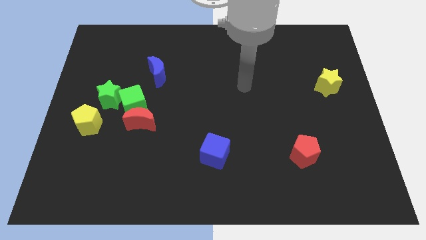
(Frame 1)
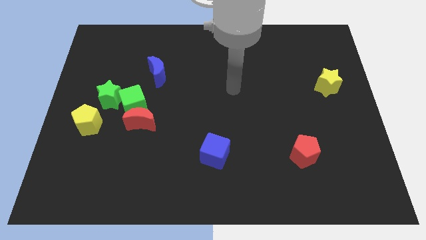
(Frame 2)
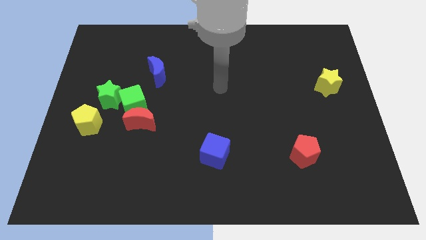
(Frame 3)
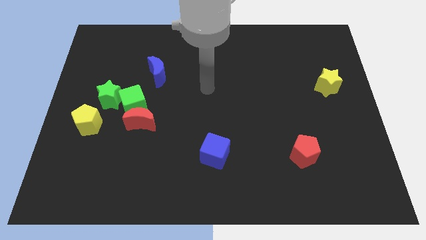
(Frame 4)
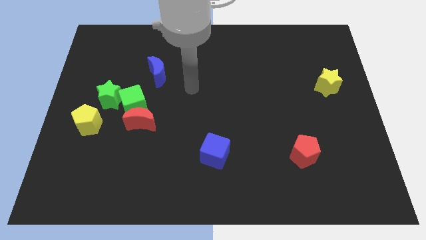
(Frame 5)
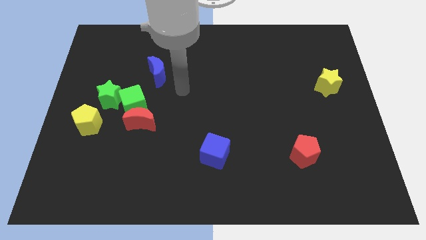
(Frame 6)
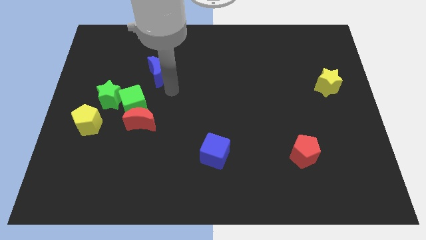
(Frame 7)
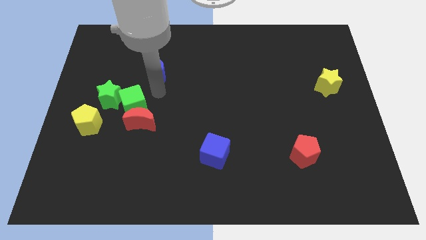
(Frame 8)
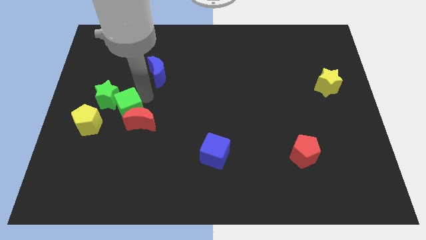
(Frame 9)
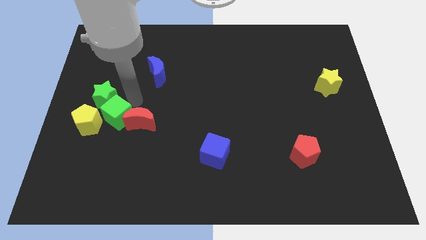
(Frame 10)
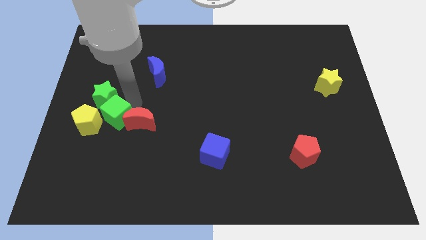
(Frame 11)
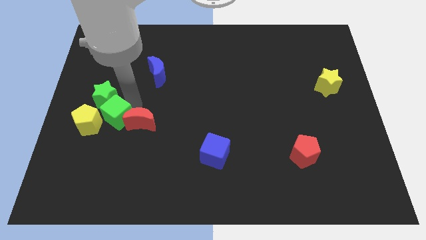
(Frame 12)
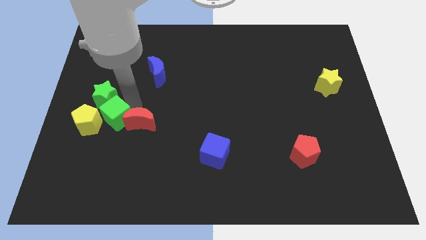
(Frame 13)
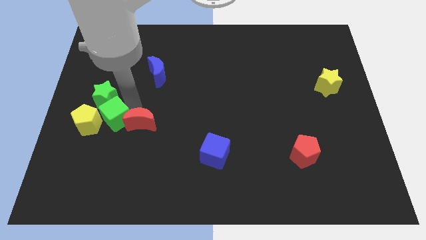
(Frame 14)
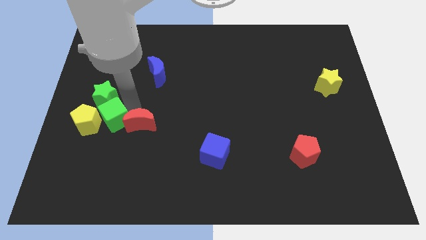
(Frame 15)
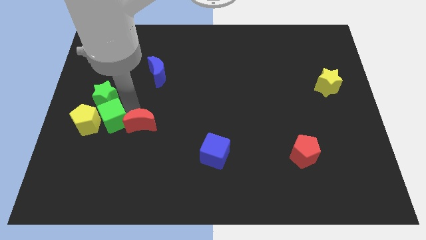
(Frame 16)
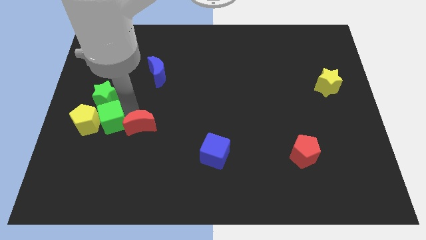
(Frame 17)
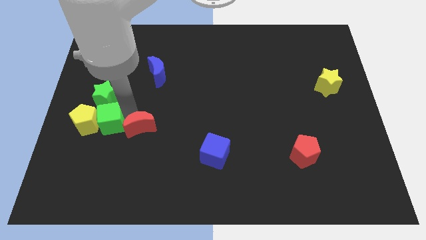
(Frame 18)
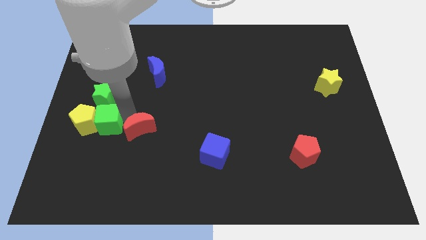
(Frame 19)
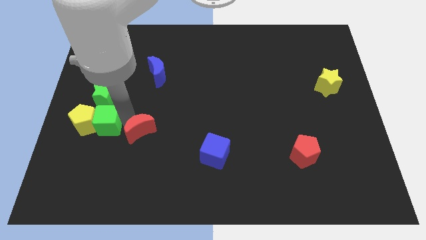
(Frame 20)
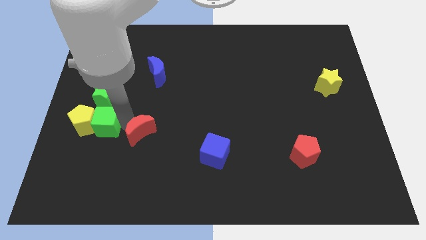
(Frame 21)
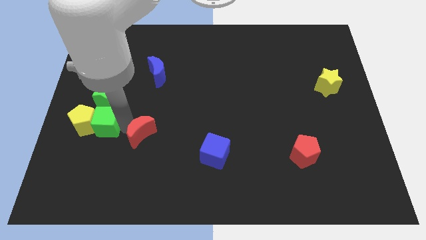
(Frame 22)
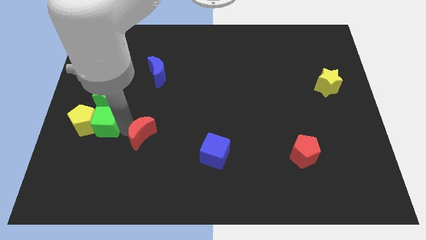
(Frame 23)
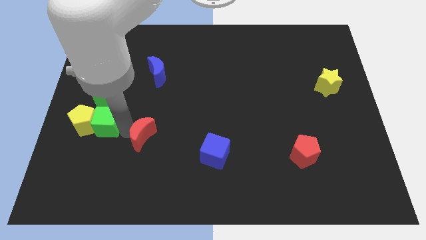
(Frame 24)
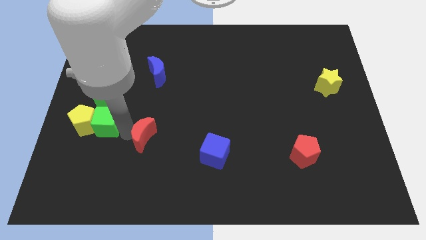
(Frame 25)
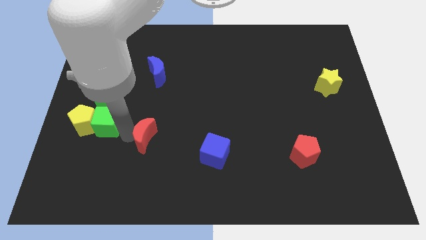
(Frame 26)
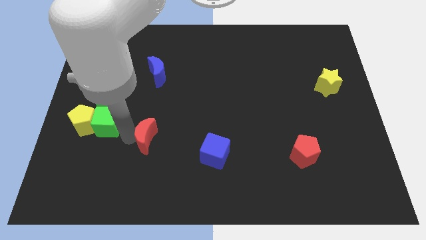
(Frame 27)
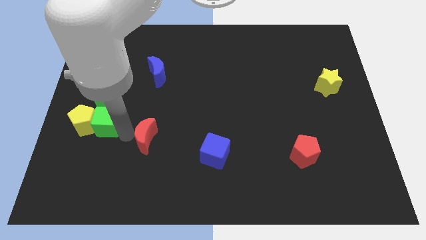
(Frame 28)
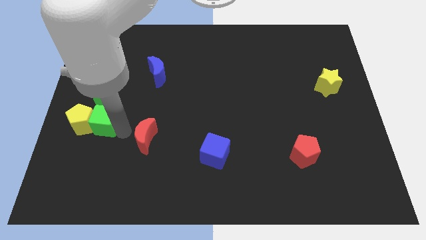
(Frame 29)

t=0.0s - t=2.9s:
move the red moon away from the green cube

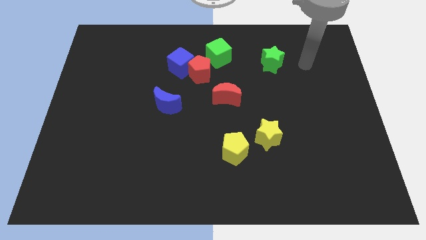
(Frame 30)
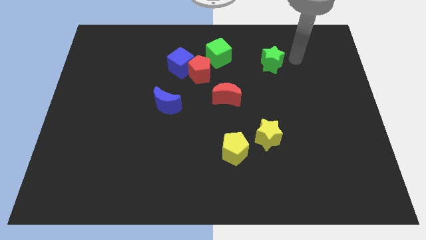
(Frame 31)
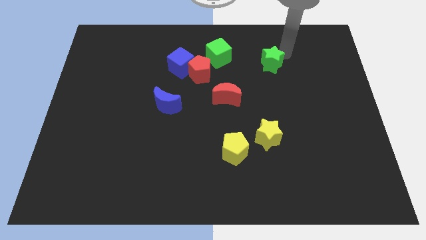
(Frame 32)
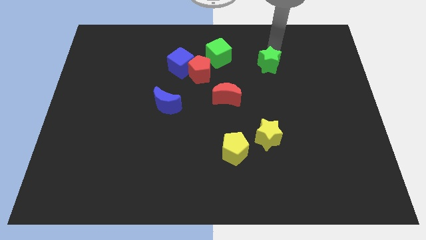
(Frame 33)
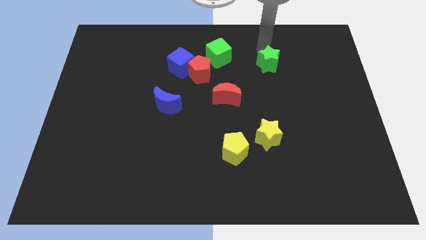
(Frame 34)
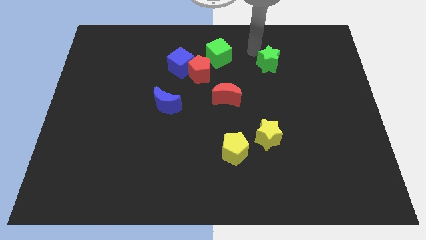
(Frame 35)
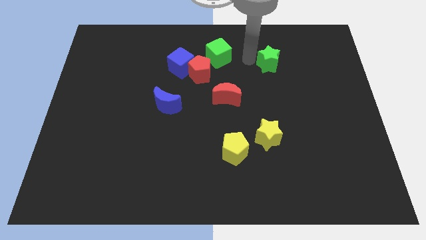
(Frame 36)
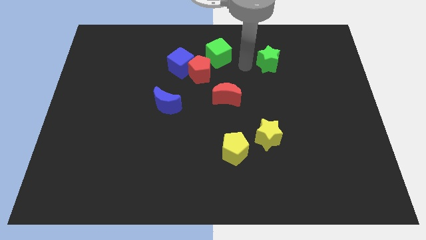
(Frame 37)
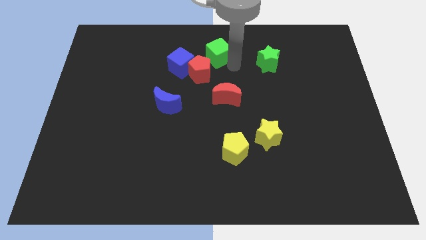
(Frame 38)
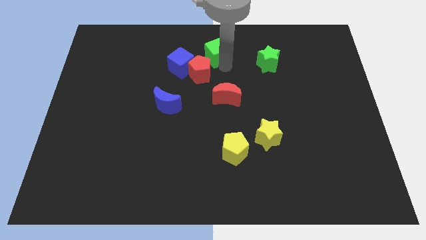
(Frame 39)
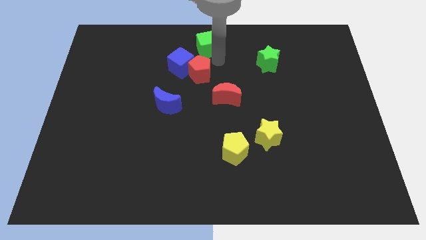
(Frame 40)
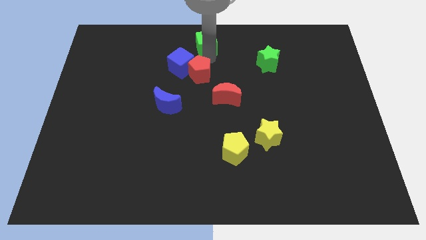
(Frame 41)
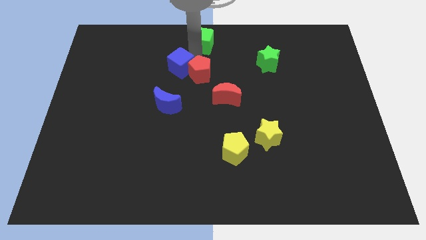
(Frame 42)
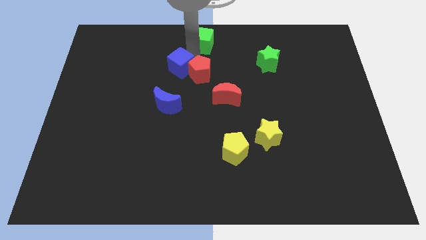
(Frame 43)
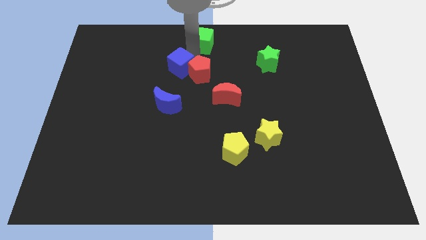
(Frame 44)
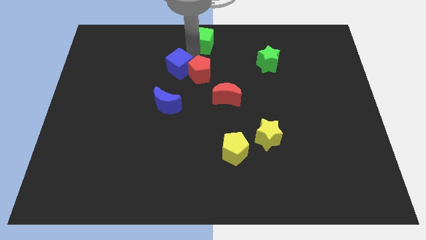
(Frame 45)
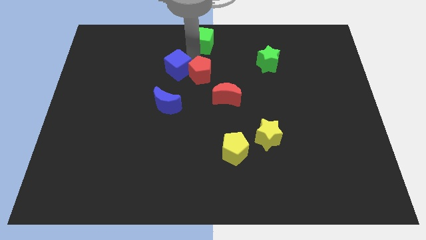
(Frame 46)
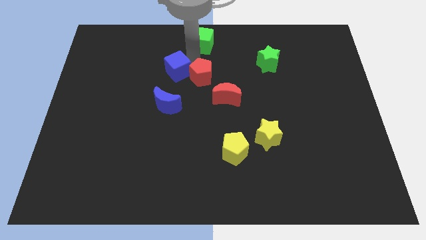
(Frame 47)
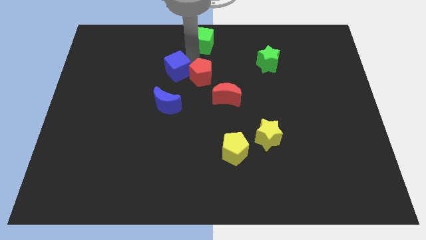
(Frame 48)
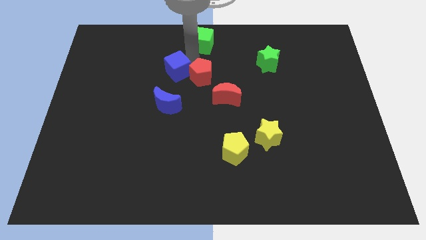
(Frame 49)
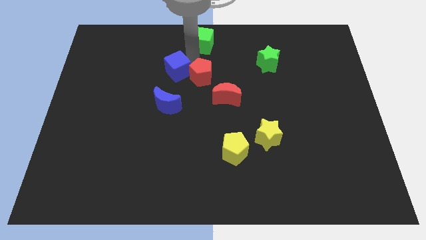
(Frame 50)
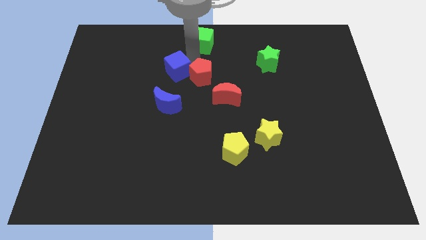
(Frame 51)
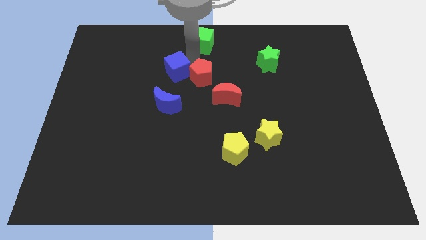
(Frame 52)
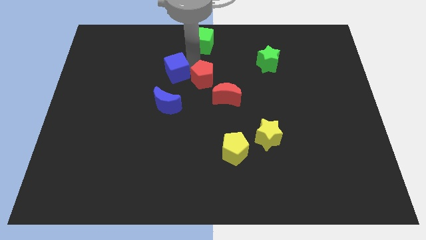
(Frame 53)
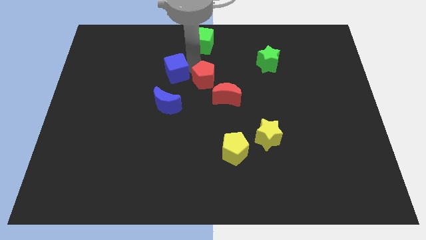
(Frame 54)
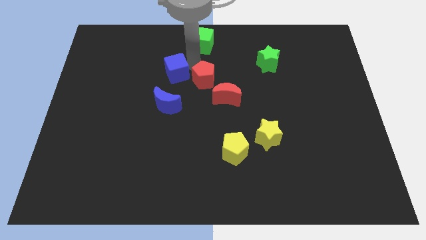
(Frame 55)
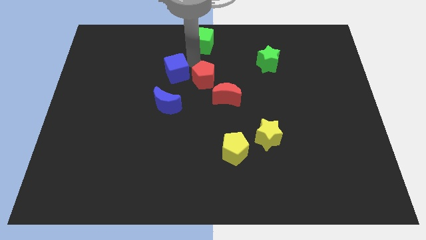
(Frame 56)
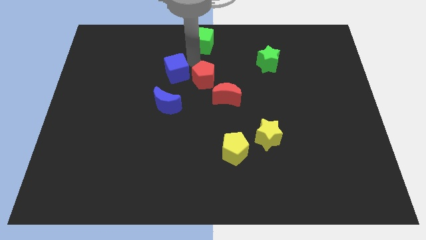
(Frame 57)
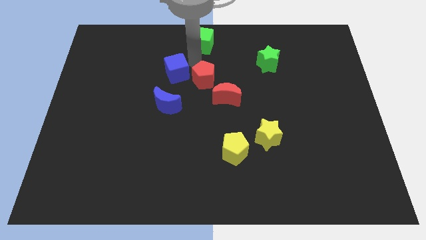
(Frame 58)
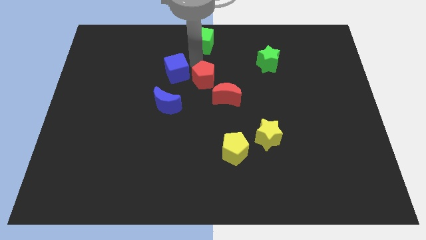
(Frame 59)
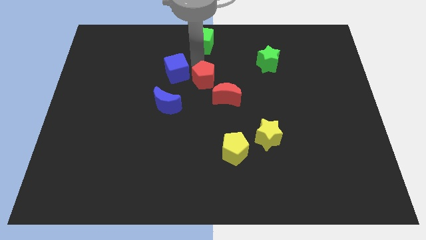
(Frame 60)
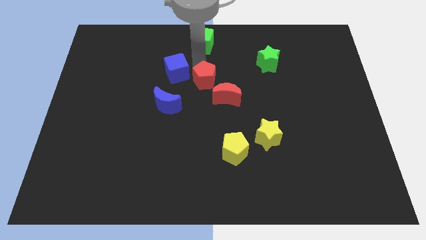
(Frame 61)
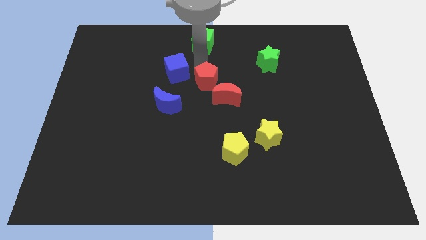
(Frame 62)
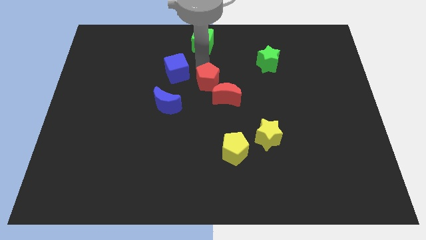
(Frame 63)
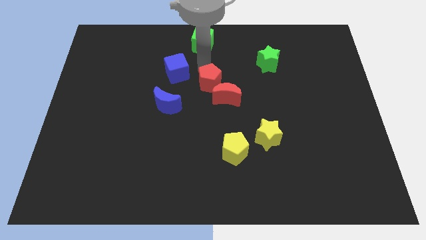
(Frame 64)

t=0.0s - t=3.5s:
pull the red pentagon apart from the blue cube and green cube

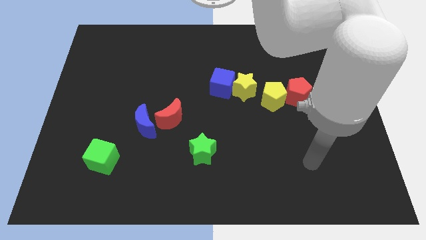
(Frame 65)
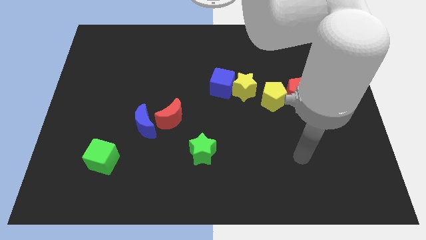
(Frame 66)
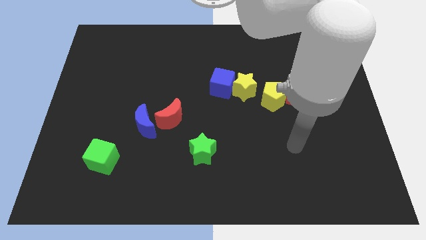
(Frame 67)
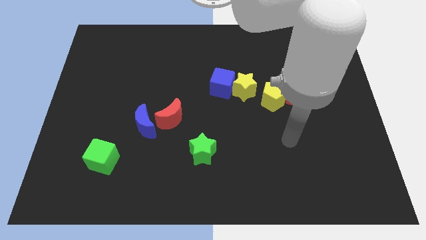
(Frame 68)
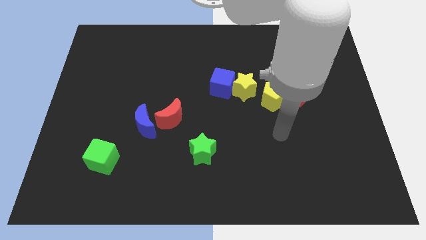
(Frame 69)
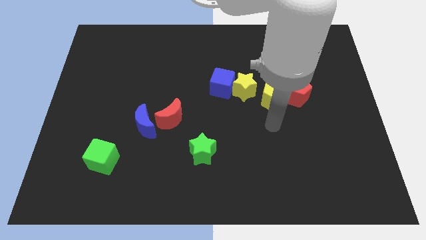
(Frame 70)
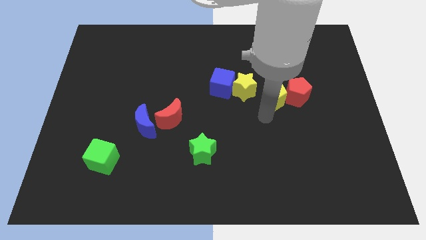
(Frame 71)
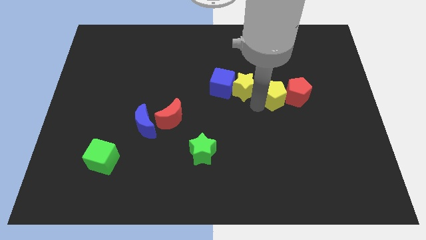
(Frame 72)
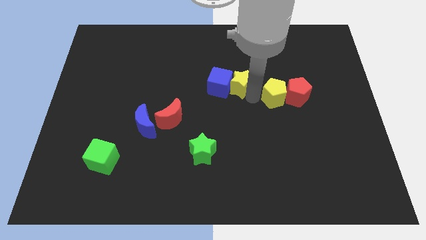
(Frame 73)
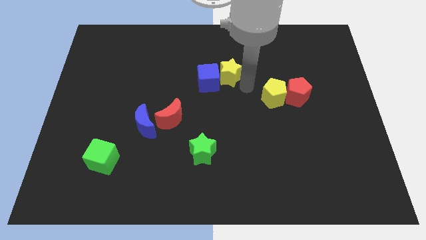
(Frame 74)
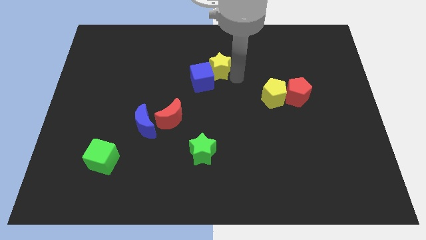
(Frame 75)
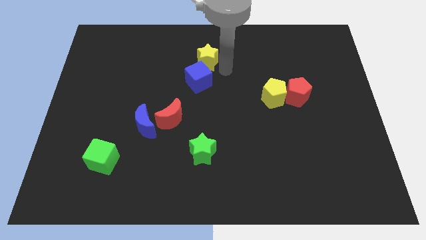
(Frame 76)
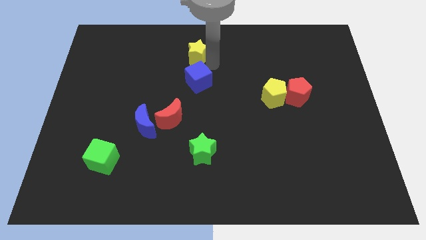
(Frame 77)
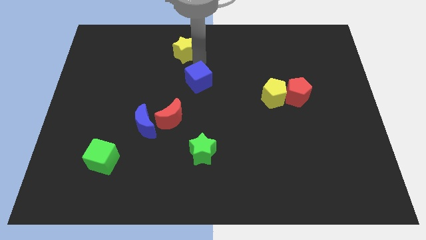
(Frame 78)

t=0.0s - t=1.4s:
move the blue cube away from the yellow star

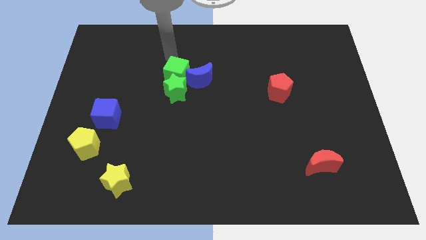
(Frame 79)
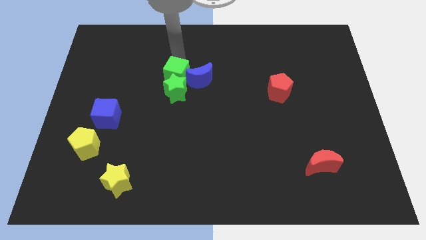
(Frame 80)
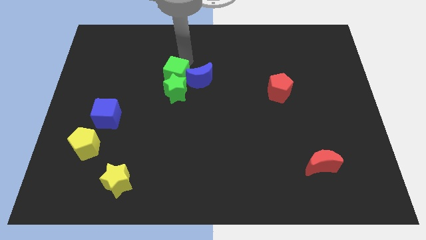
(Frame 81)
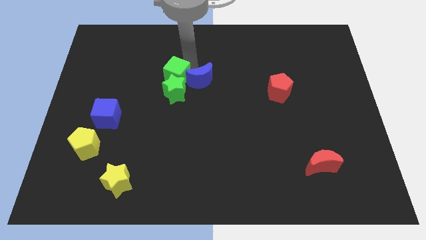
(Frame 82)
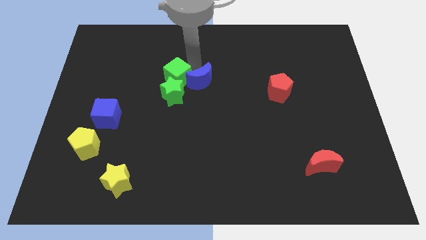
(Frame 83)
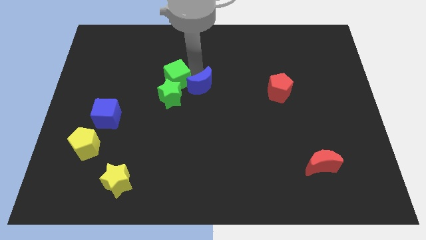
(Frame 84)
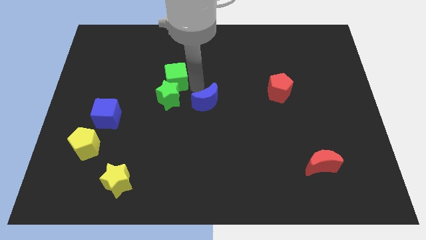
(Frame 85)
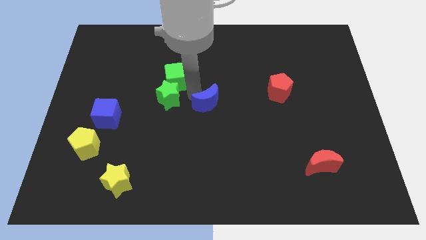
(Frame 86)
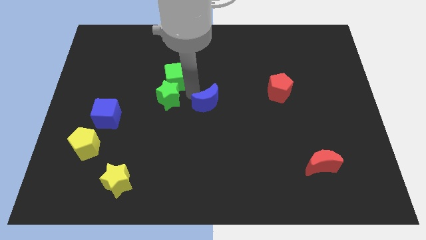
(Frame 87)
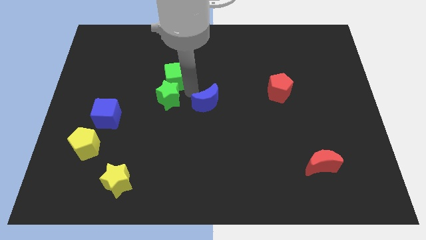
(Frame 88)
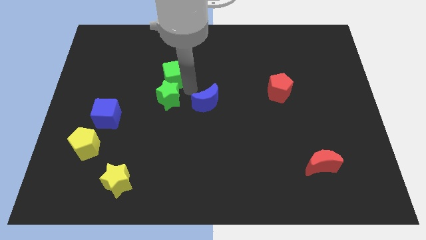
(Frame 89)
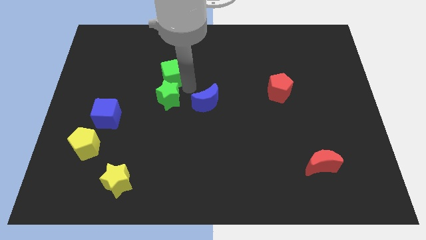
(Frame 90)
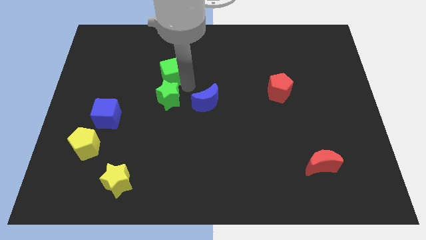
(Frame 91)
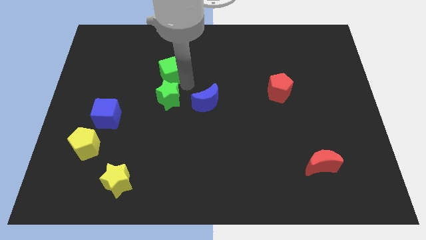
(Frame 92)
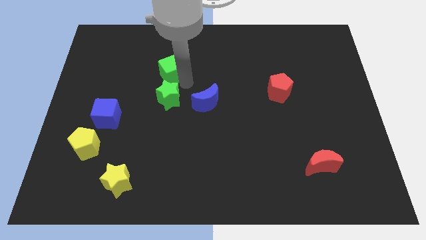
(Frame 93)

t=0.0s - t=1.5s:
move the green cube away from the green star and blue moon
